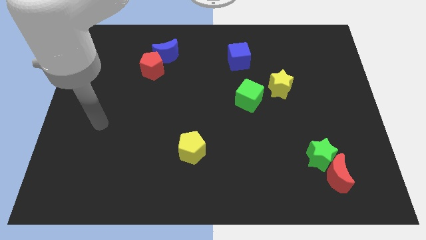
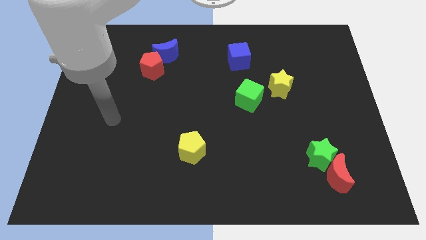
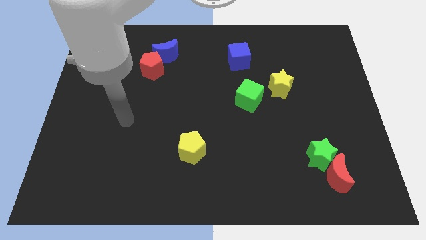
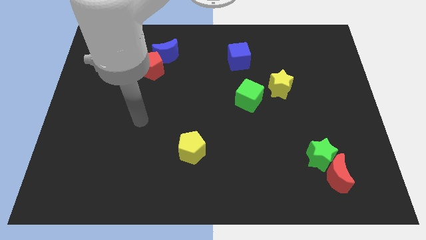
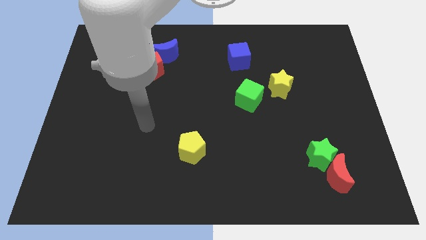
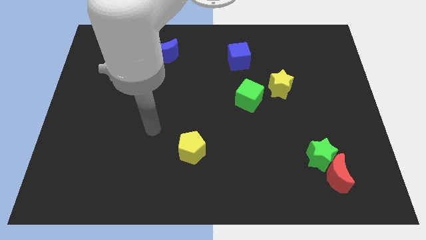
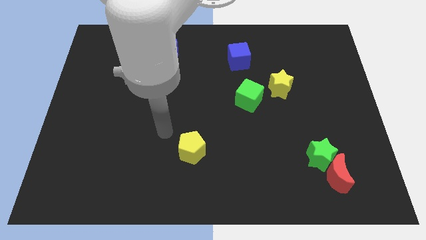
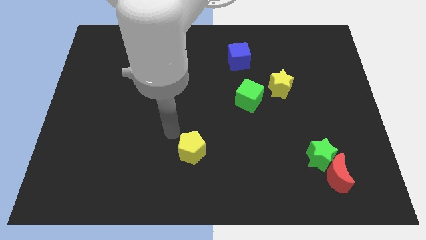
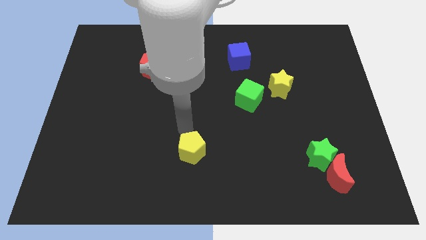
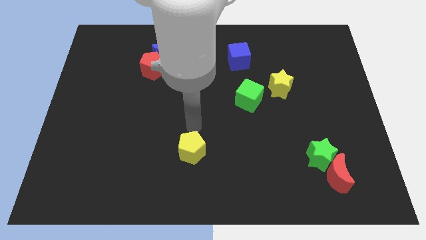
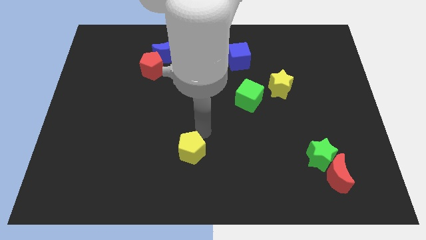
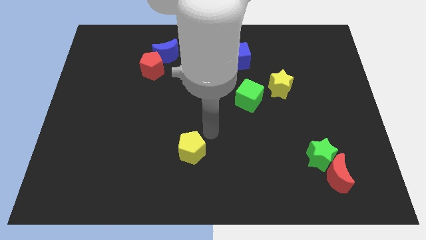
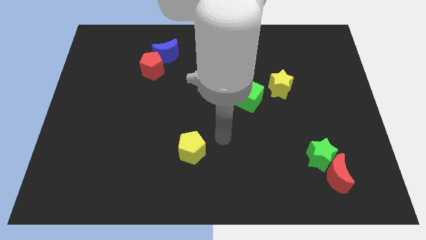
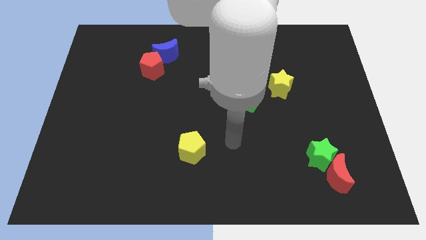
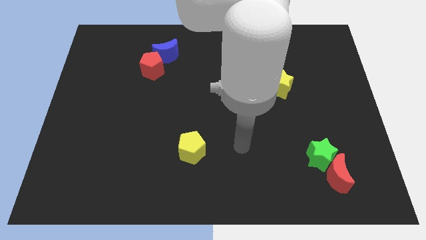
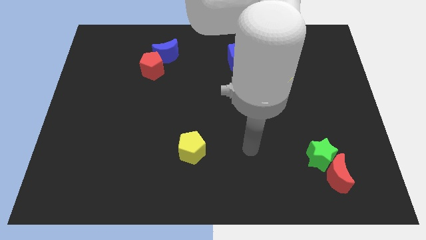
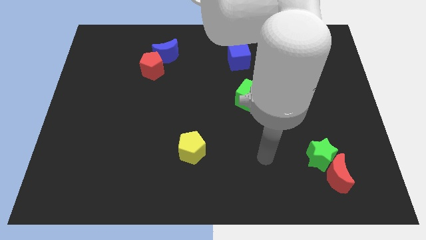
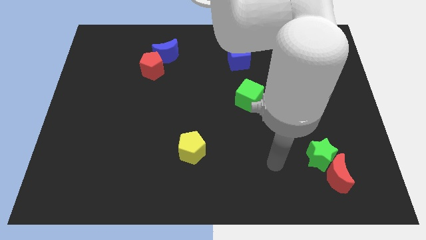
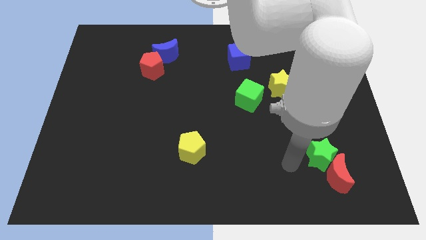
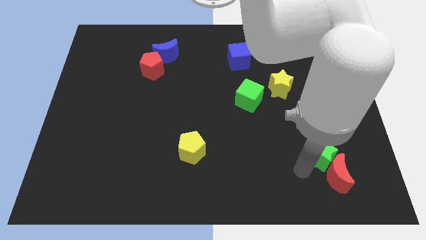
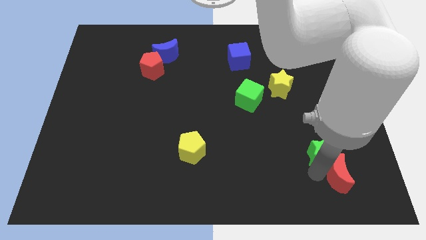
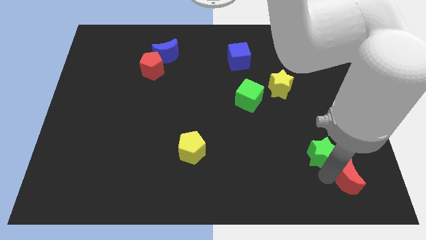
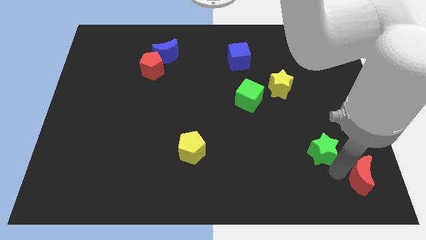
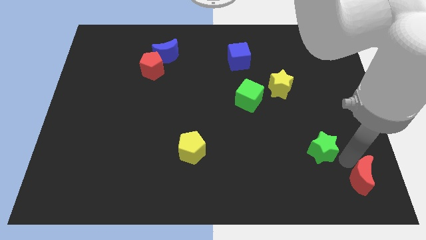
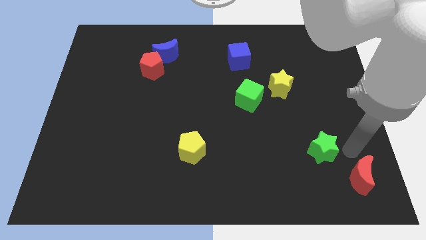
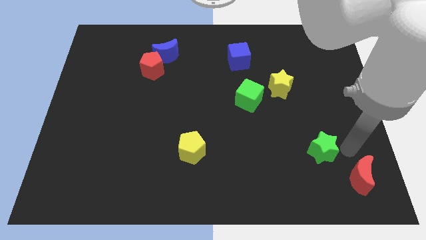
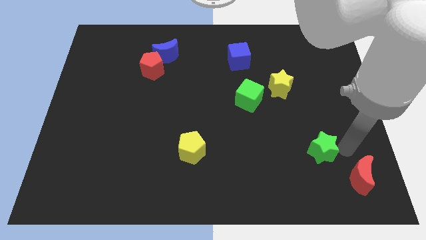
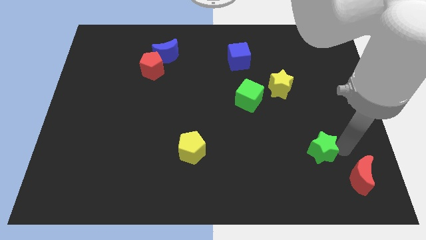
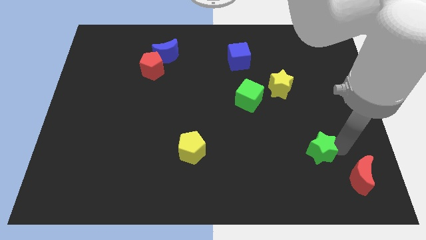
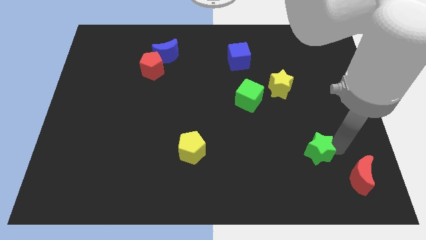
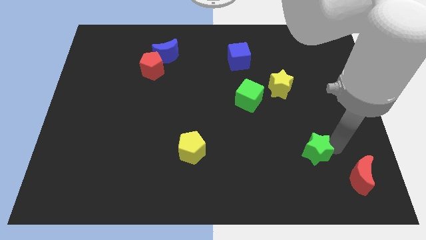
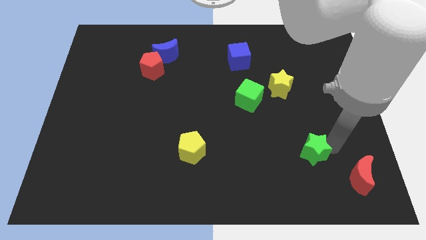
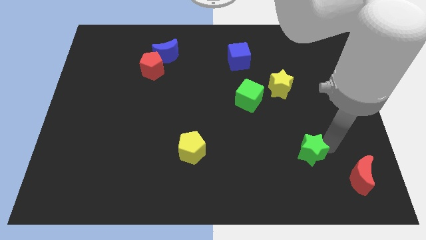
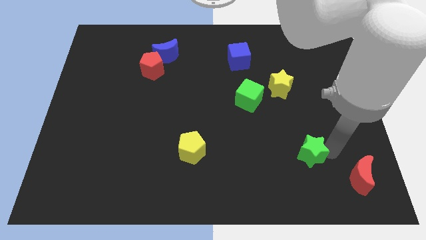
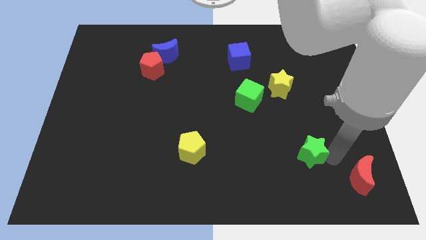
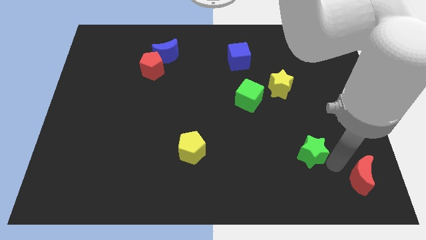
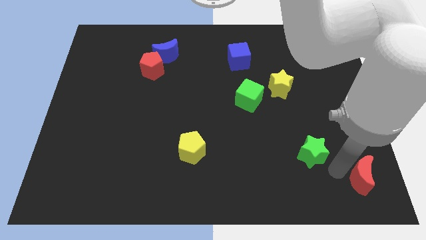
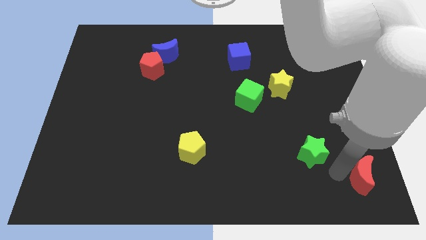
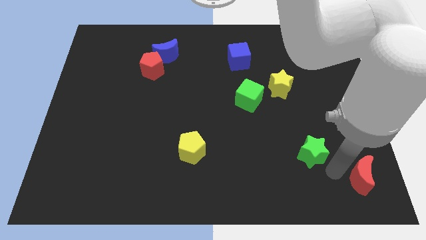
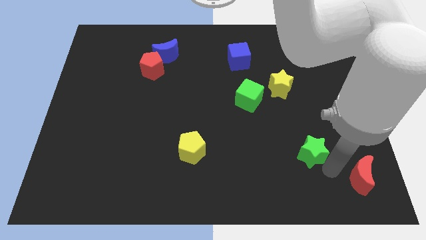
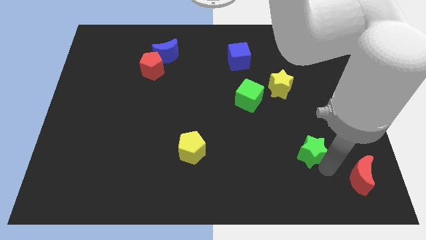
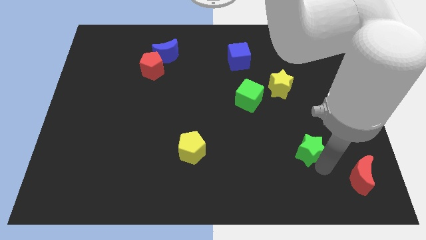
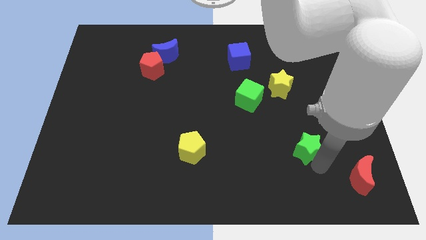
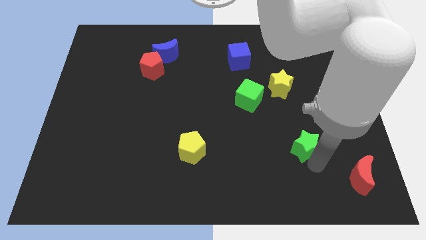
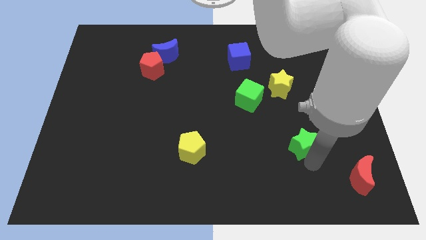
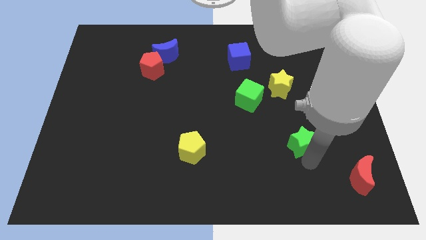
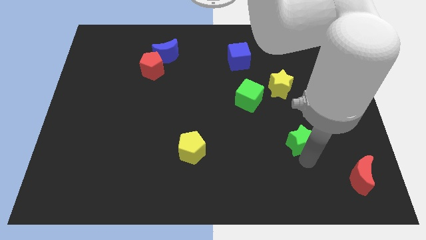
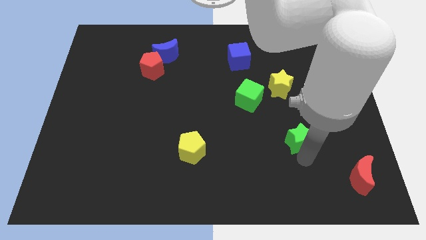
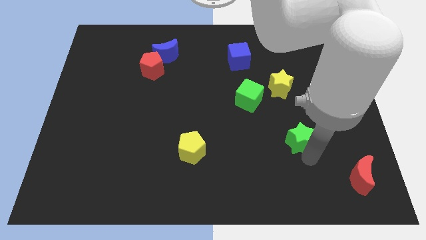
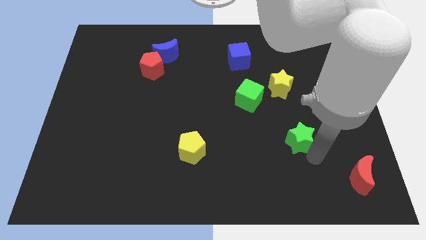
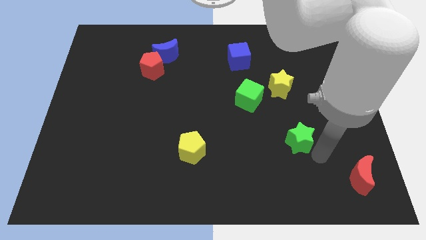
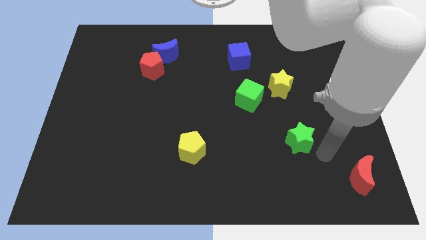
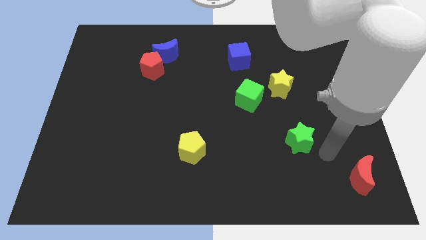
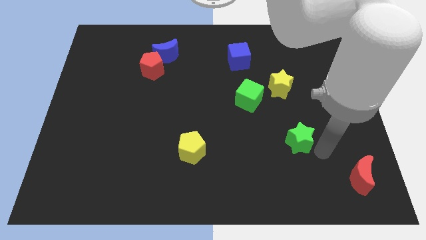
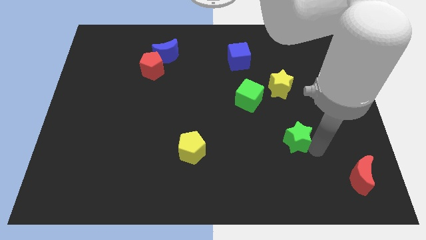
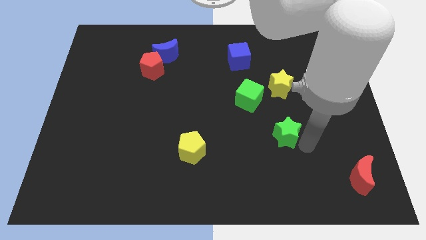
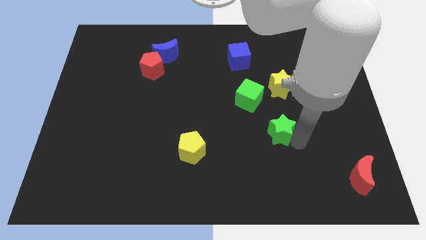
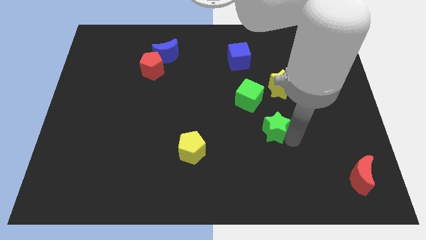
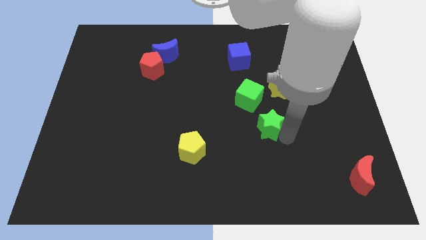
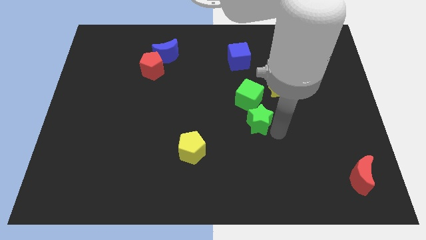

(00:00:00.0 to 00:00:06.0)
move the green star to the middle
